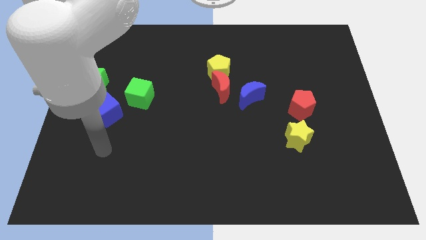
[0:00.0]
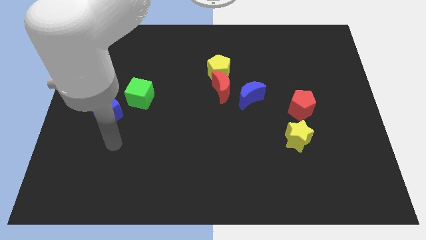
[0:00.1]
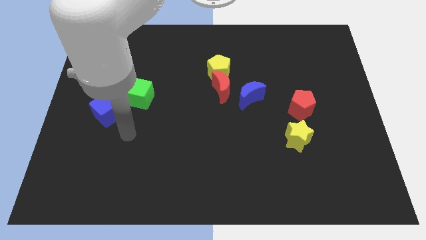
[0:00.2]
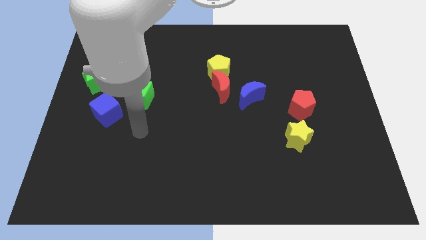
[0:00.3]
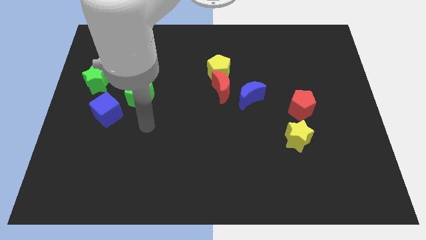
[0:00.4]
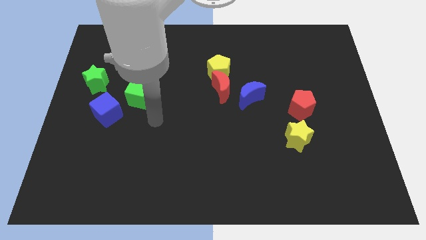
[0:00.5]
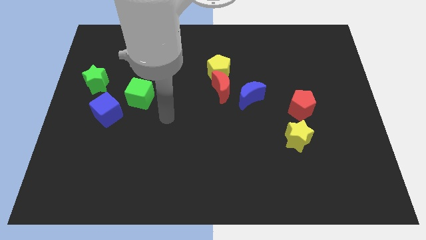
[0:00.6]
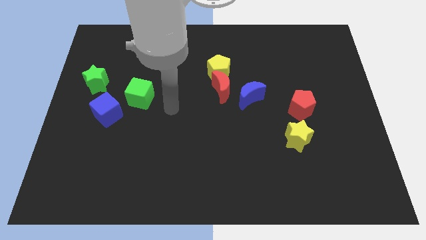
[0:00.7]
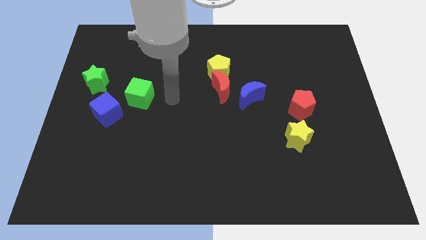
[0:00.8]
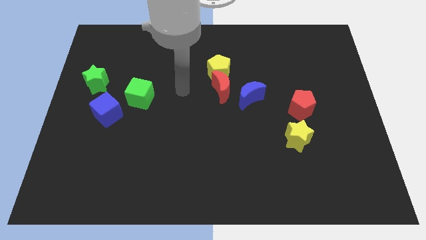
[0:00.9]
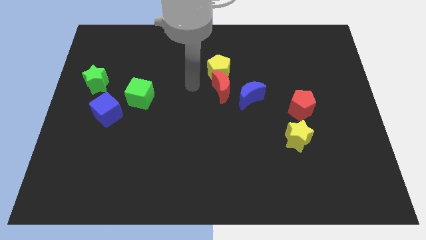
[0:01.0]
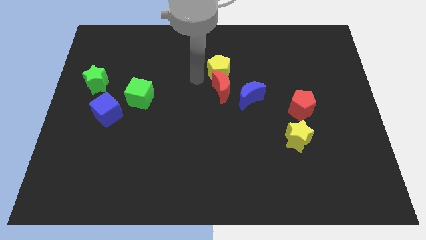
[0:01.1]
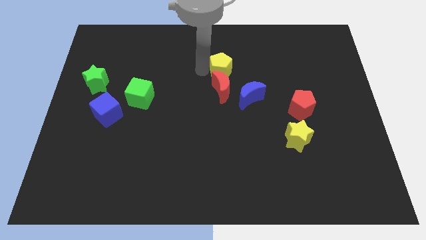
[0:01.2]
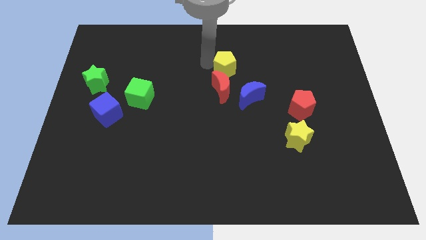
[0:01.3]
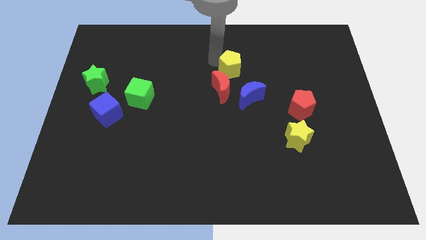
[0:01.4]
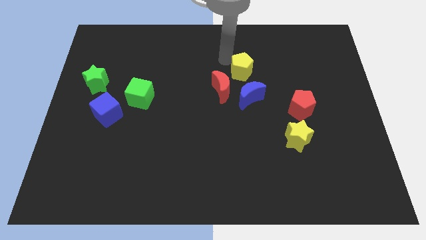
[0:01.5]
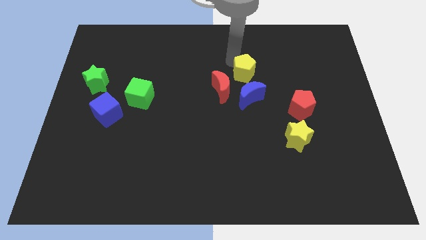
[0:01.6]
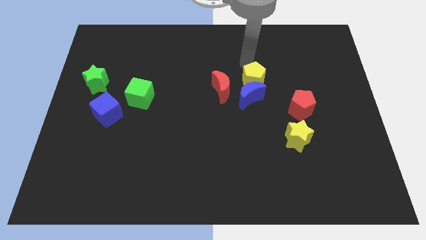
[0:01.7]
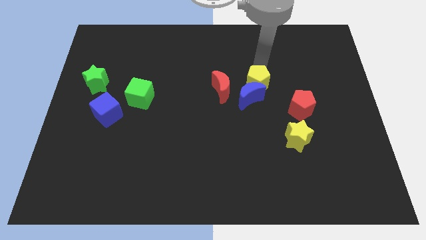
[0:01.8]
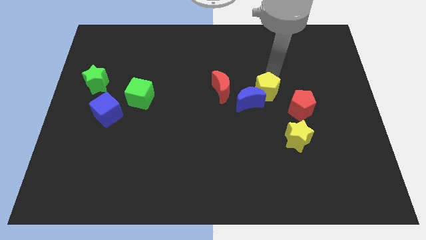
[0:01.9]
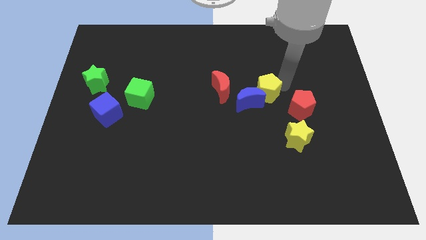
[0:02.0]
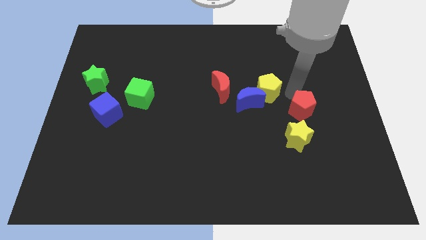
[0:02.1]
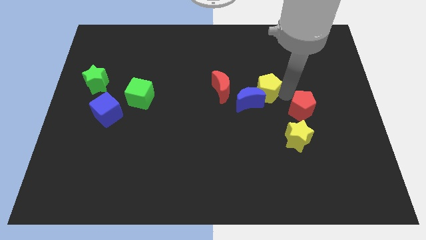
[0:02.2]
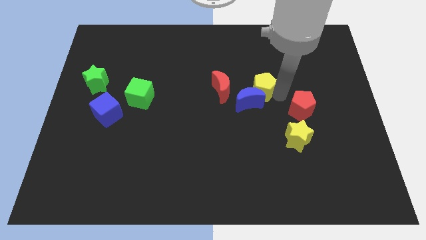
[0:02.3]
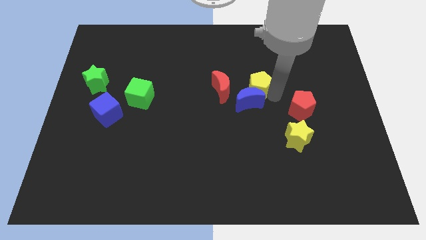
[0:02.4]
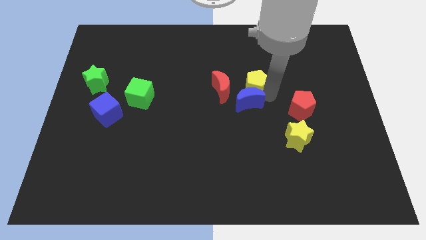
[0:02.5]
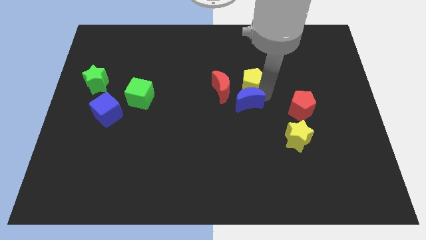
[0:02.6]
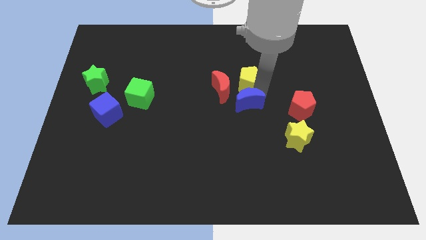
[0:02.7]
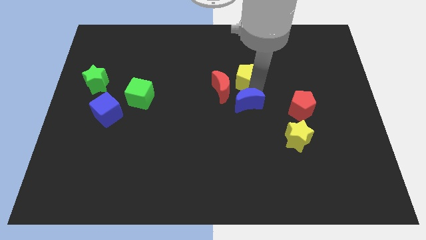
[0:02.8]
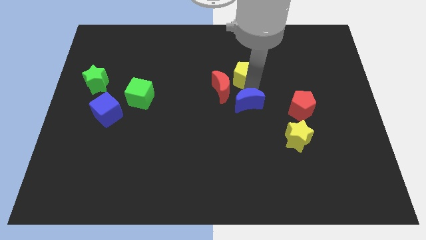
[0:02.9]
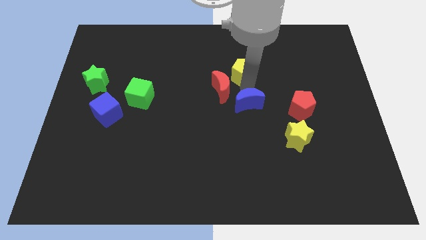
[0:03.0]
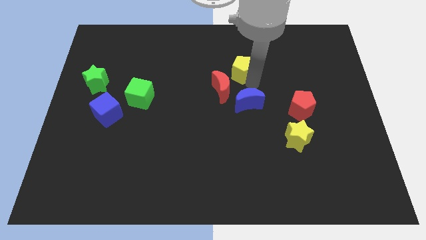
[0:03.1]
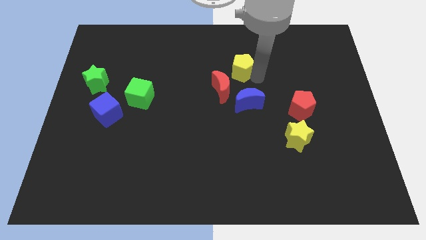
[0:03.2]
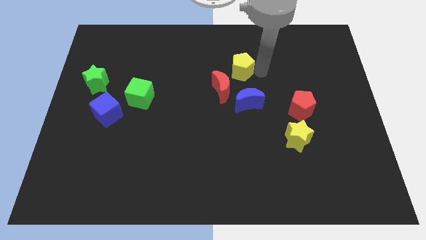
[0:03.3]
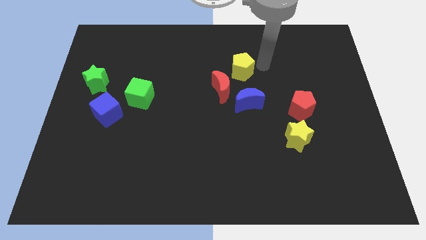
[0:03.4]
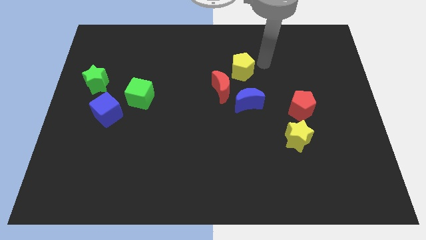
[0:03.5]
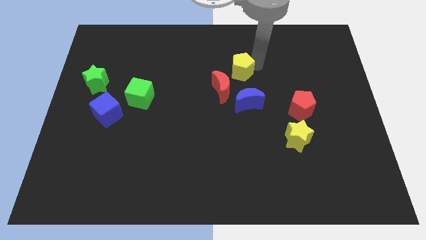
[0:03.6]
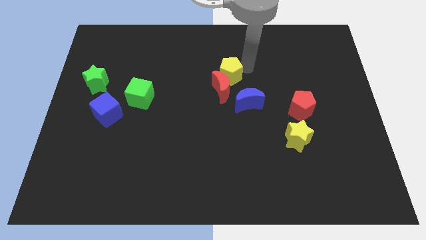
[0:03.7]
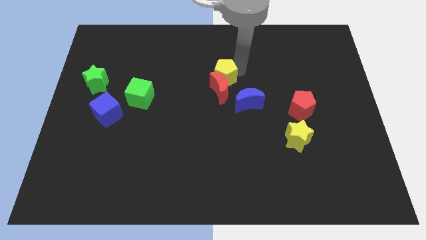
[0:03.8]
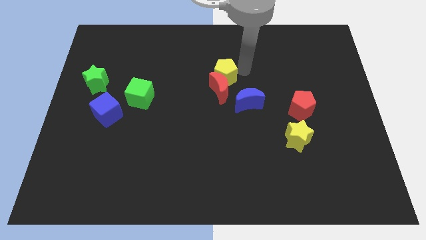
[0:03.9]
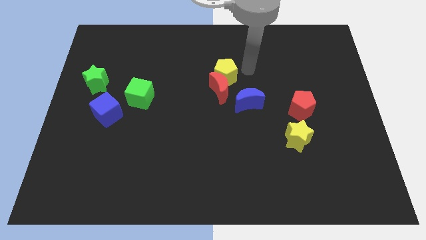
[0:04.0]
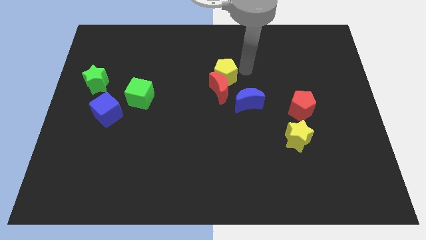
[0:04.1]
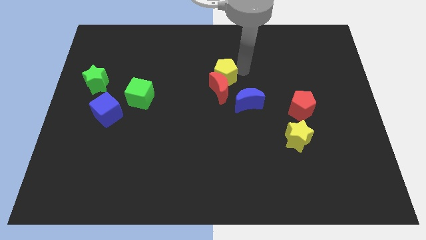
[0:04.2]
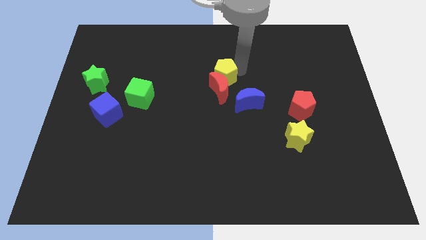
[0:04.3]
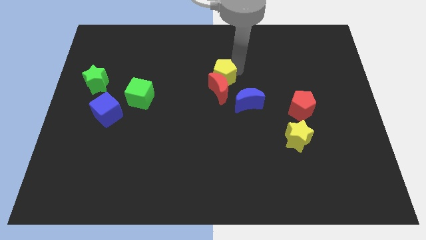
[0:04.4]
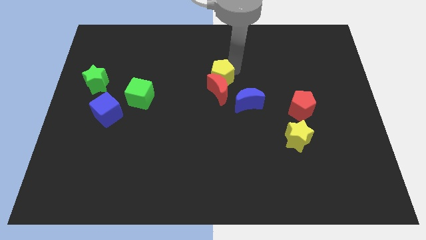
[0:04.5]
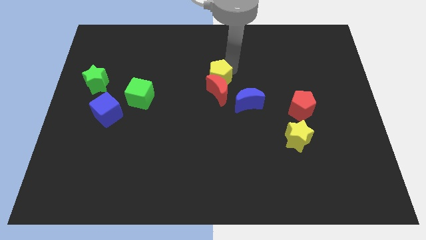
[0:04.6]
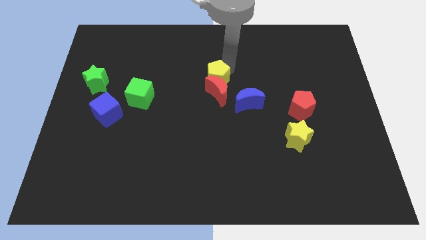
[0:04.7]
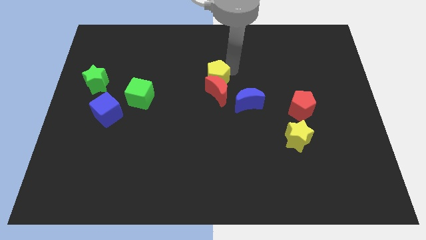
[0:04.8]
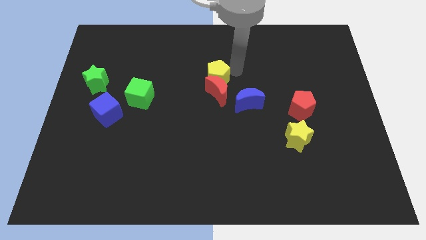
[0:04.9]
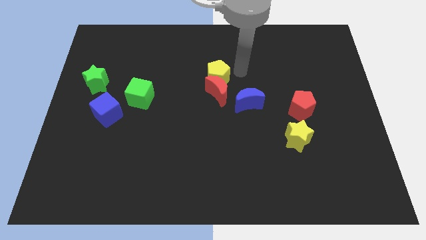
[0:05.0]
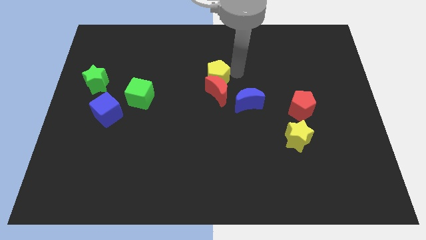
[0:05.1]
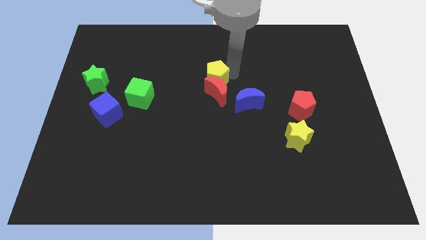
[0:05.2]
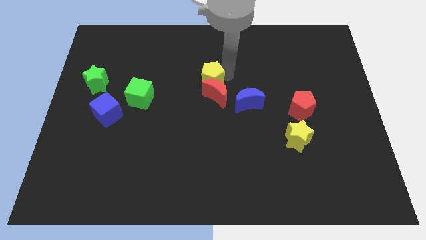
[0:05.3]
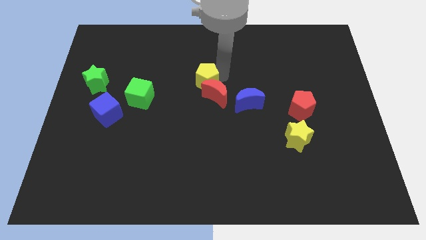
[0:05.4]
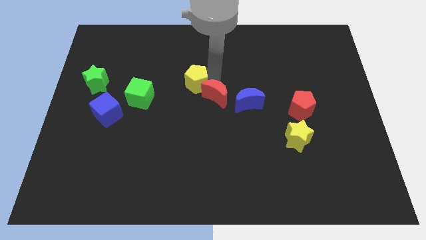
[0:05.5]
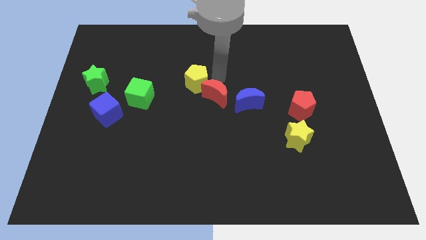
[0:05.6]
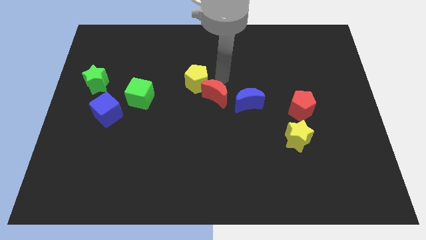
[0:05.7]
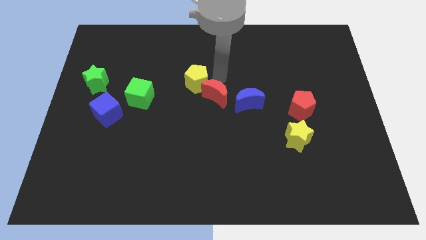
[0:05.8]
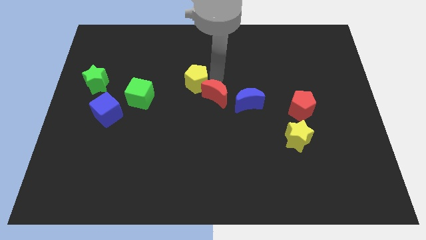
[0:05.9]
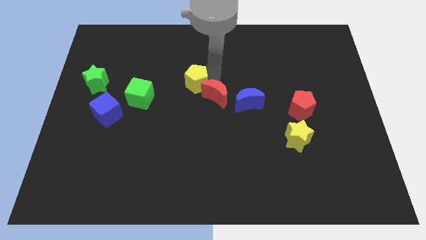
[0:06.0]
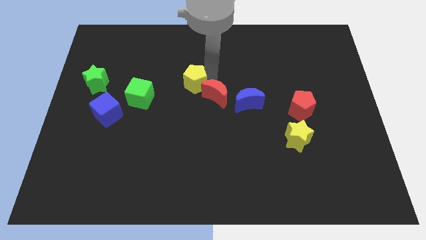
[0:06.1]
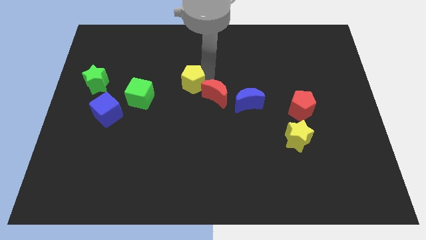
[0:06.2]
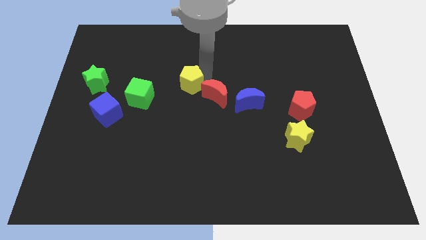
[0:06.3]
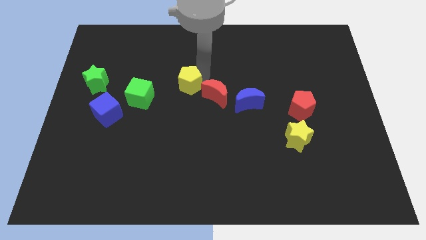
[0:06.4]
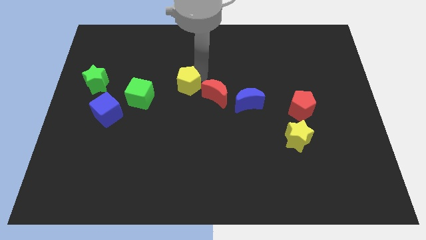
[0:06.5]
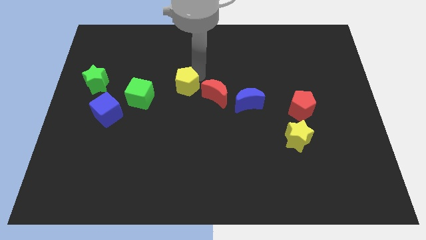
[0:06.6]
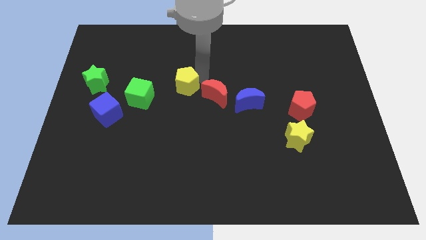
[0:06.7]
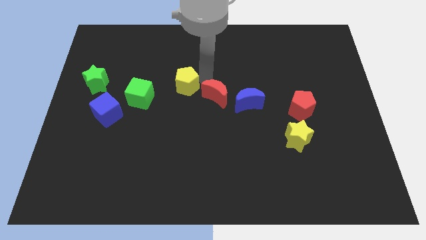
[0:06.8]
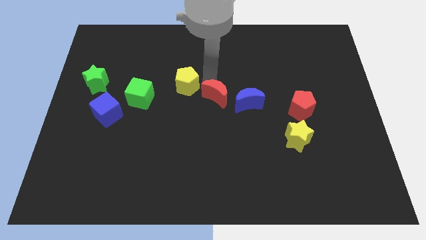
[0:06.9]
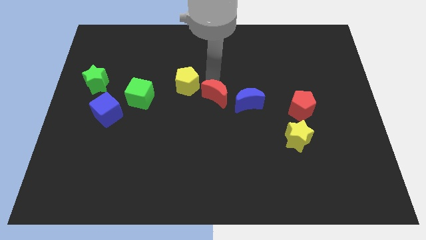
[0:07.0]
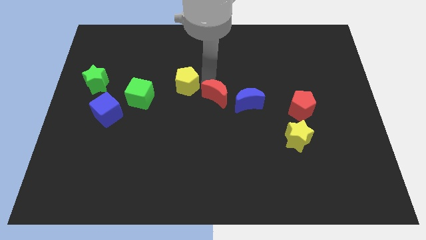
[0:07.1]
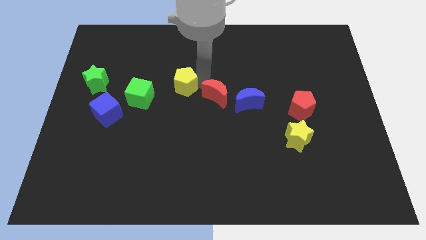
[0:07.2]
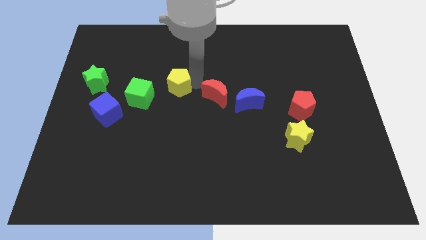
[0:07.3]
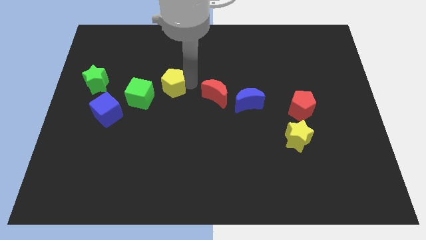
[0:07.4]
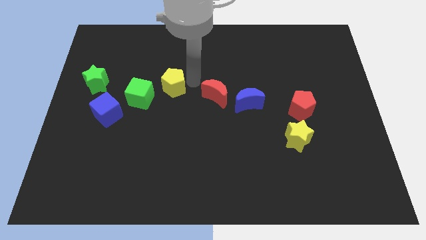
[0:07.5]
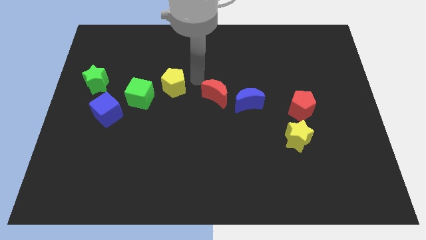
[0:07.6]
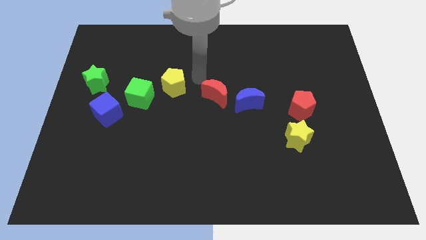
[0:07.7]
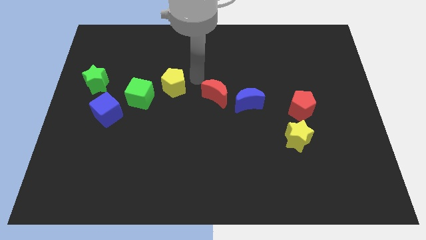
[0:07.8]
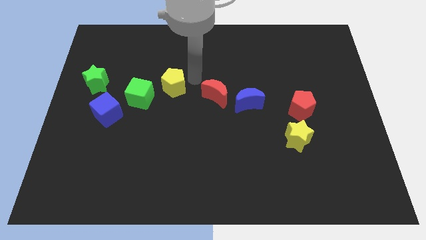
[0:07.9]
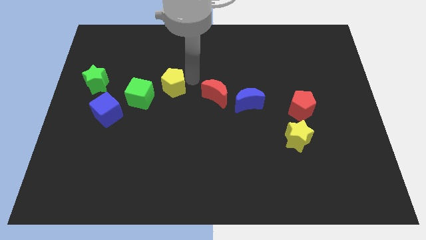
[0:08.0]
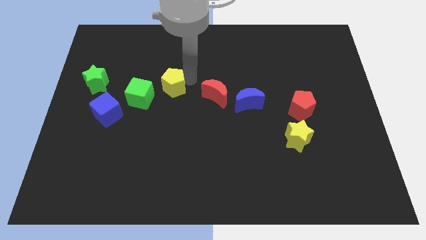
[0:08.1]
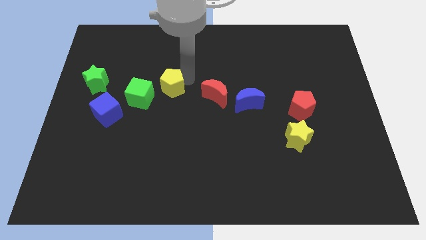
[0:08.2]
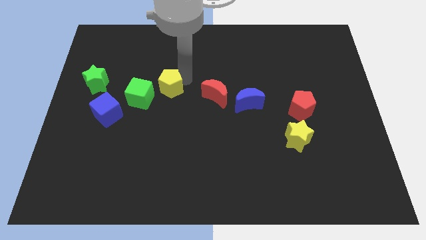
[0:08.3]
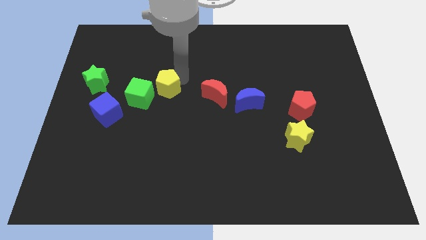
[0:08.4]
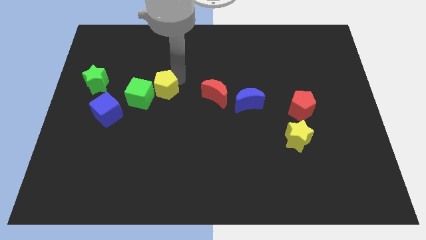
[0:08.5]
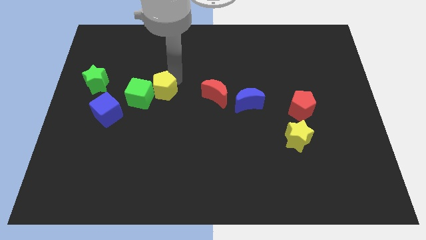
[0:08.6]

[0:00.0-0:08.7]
move the yellow pentagon to the green cube
